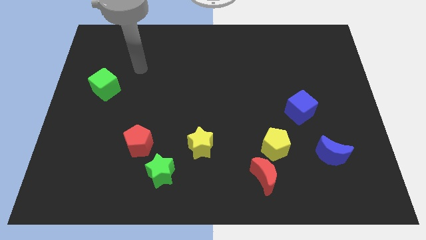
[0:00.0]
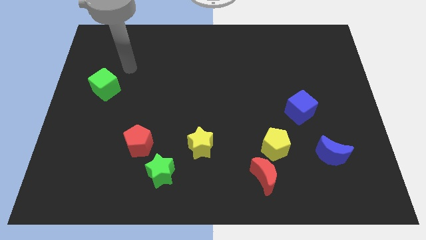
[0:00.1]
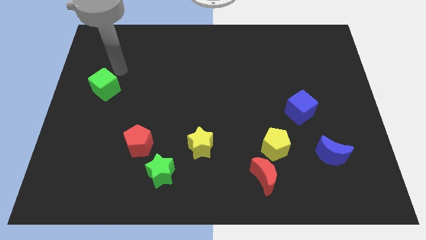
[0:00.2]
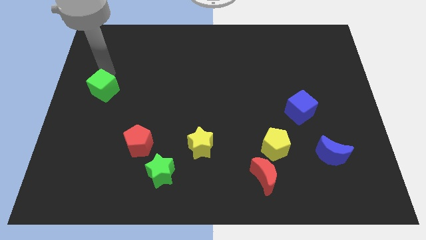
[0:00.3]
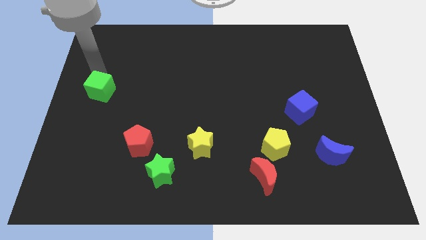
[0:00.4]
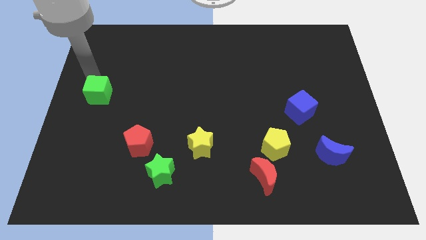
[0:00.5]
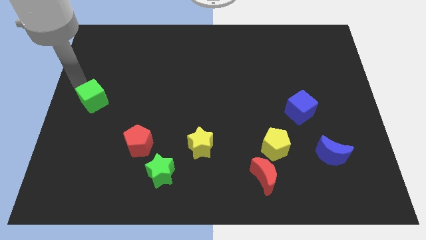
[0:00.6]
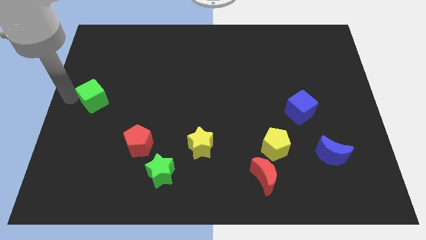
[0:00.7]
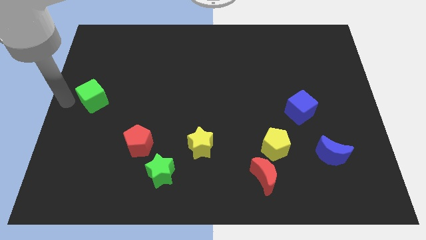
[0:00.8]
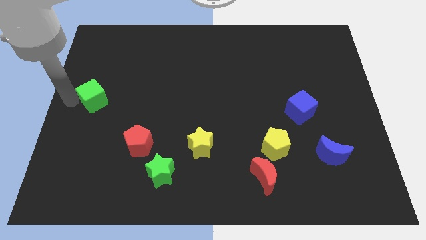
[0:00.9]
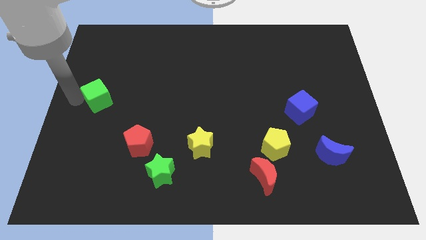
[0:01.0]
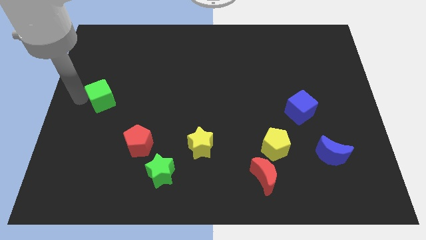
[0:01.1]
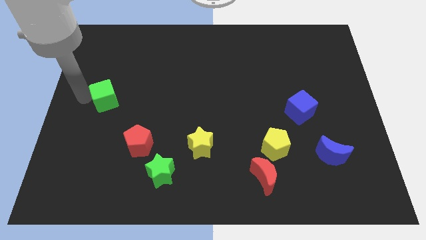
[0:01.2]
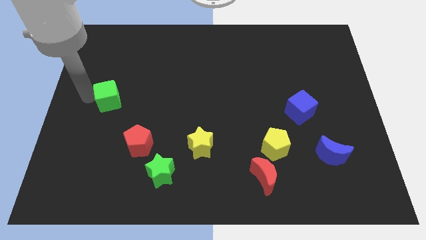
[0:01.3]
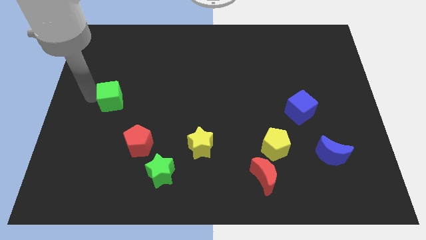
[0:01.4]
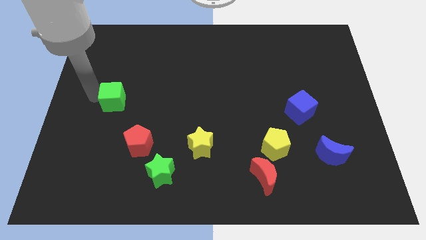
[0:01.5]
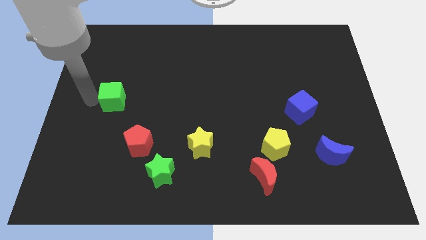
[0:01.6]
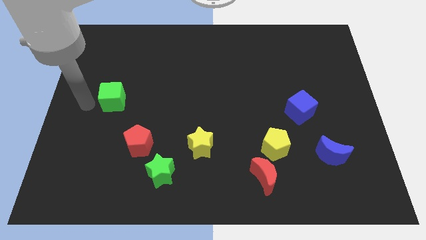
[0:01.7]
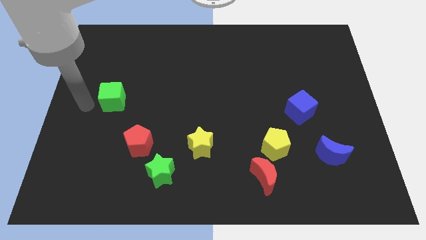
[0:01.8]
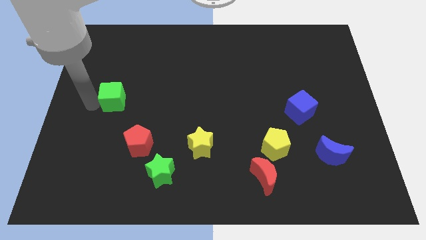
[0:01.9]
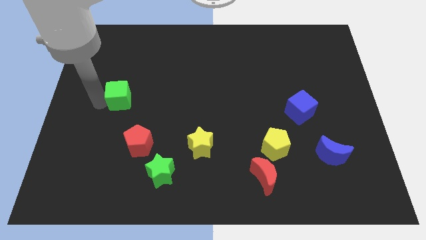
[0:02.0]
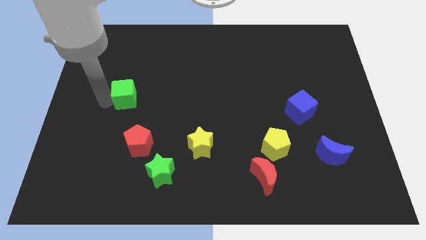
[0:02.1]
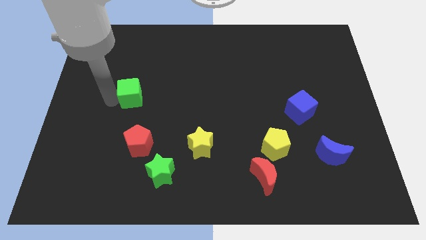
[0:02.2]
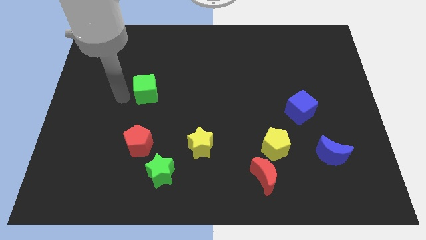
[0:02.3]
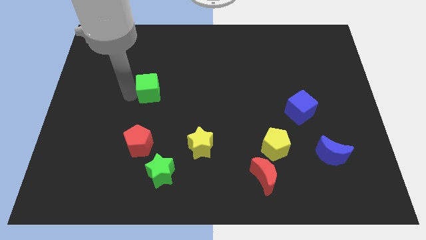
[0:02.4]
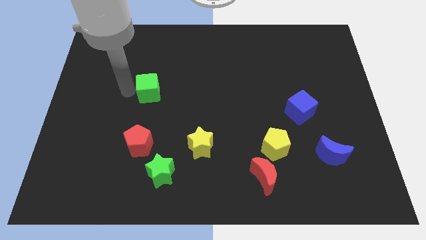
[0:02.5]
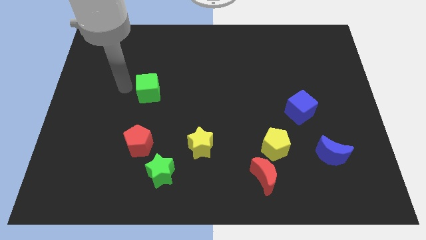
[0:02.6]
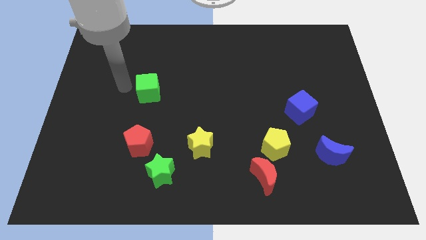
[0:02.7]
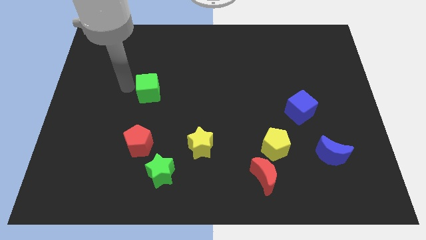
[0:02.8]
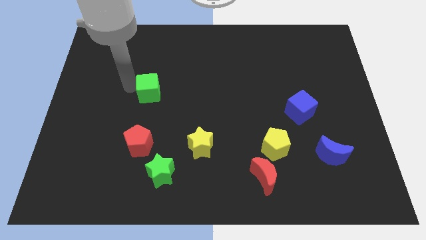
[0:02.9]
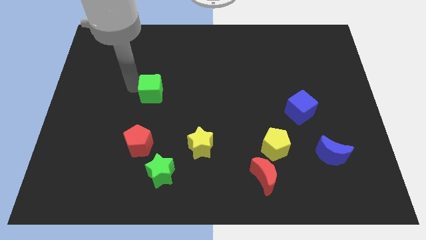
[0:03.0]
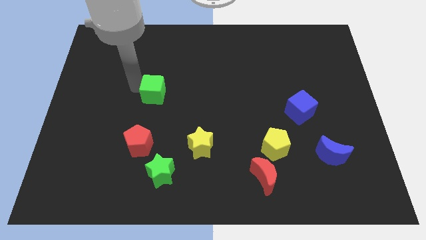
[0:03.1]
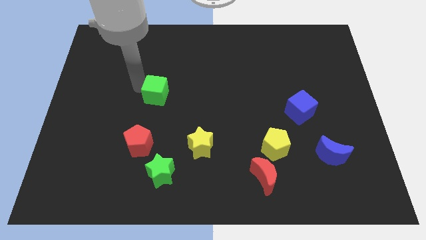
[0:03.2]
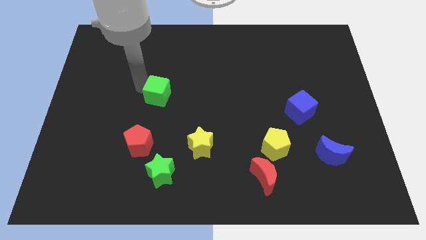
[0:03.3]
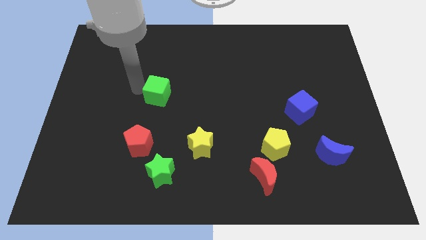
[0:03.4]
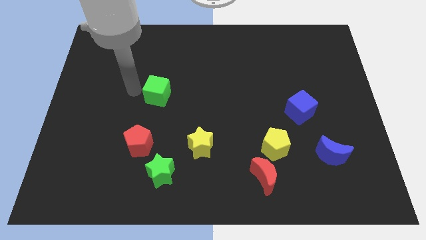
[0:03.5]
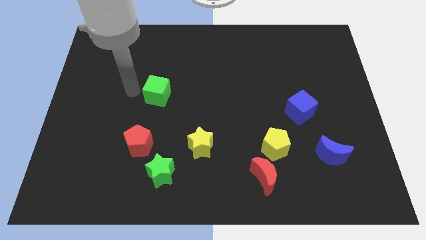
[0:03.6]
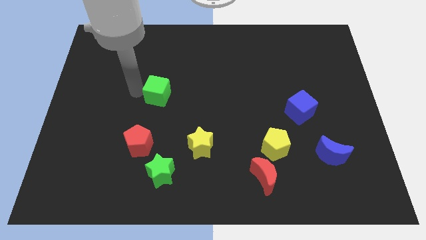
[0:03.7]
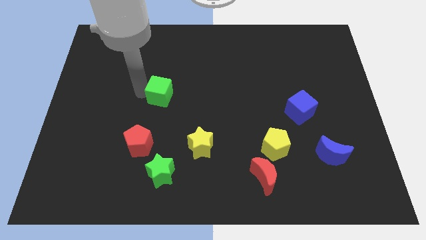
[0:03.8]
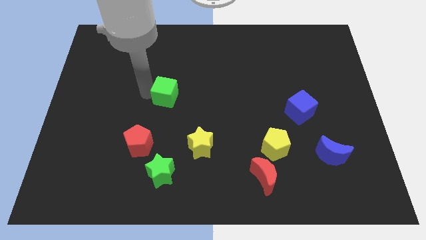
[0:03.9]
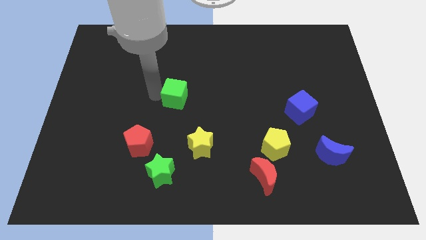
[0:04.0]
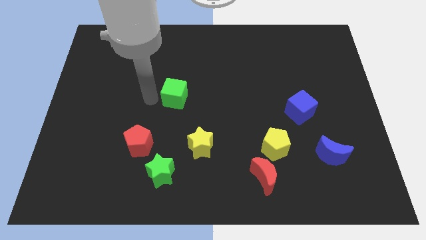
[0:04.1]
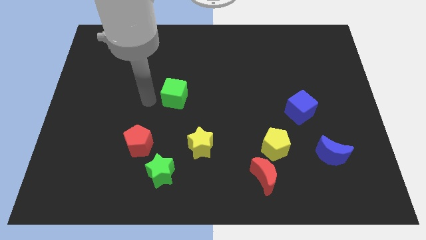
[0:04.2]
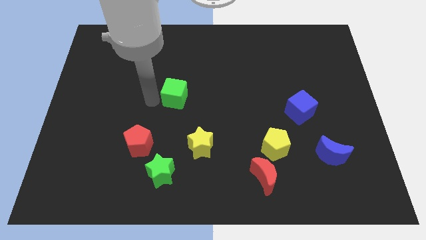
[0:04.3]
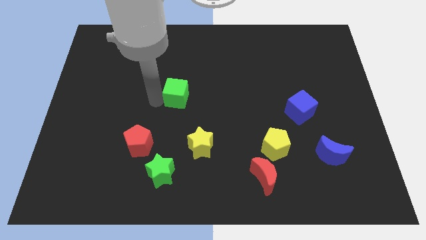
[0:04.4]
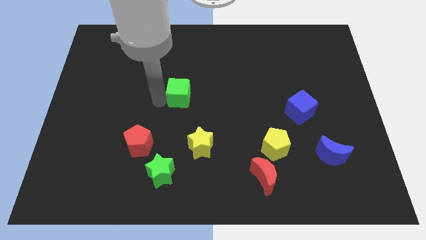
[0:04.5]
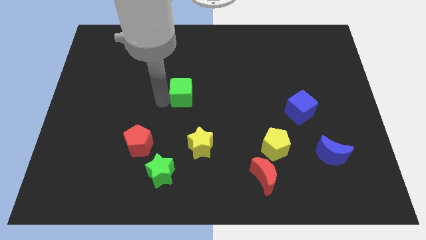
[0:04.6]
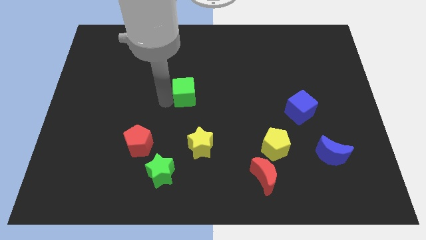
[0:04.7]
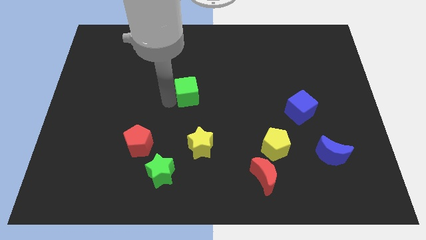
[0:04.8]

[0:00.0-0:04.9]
push the green cube right

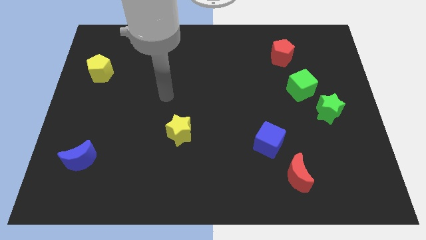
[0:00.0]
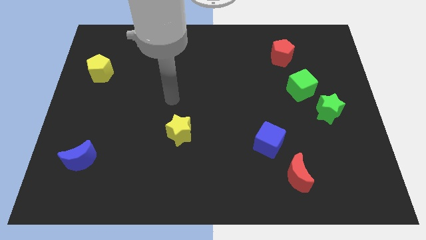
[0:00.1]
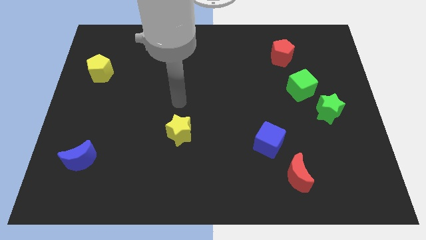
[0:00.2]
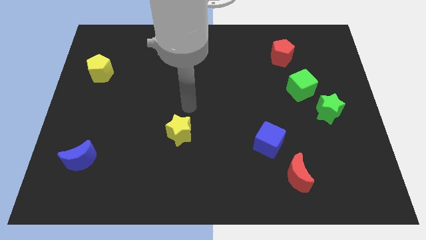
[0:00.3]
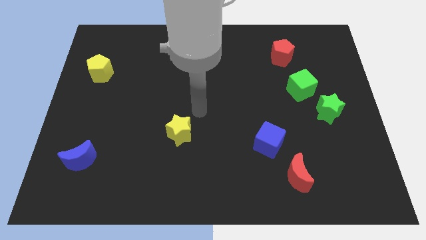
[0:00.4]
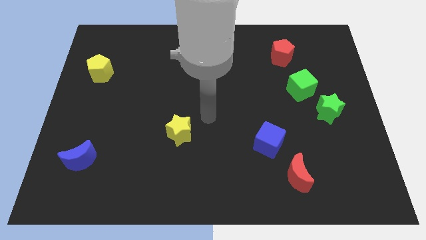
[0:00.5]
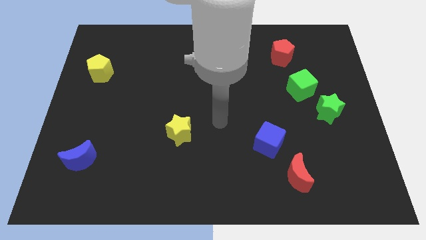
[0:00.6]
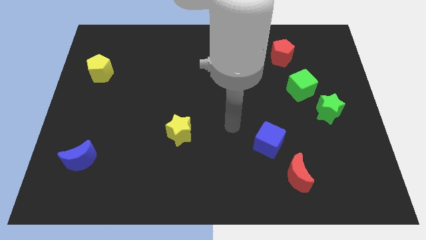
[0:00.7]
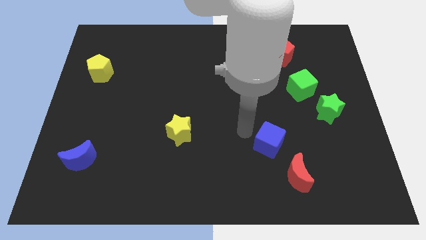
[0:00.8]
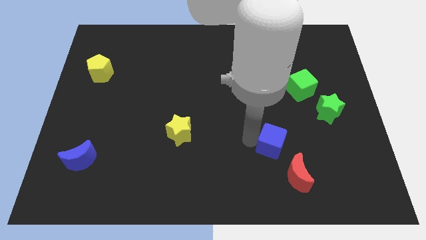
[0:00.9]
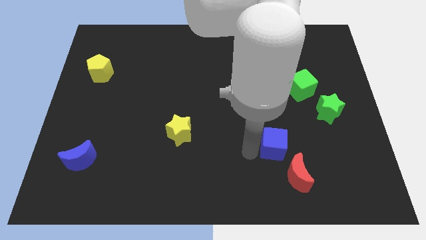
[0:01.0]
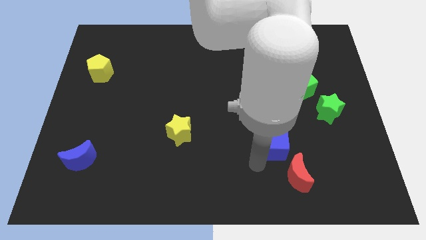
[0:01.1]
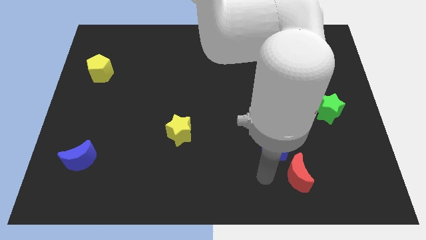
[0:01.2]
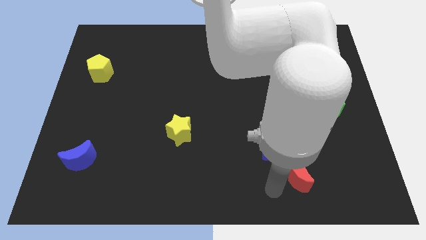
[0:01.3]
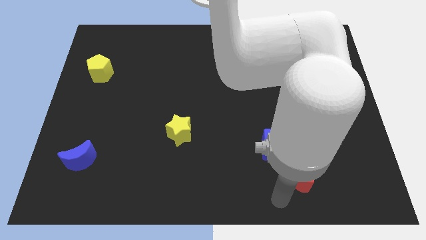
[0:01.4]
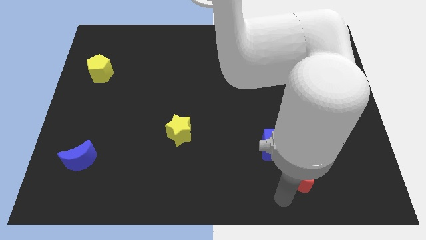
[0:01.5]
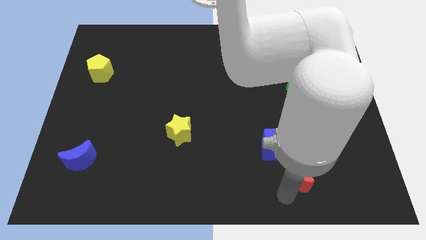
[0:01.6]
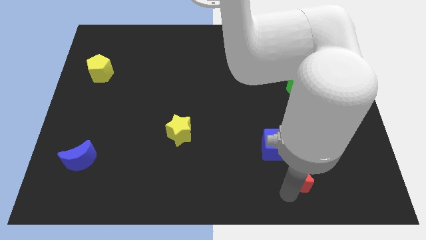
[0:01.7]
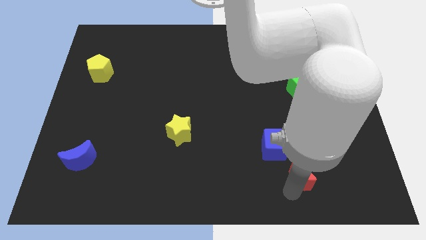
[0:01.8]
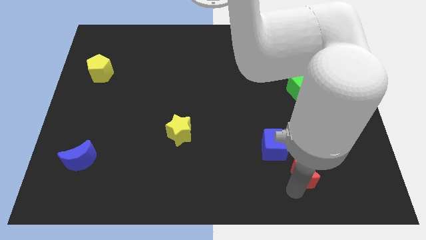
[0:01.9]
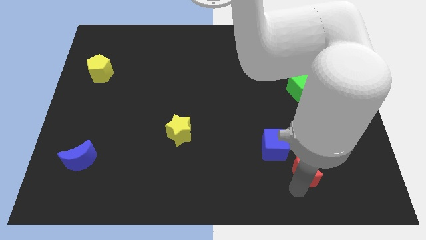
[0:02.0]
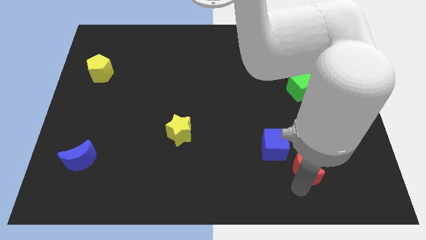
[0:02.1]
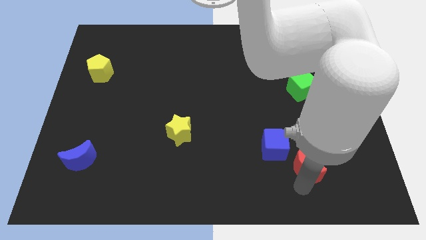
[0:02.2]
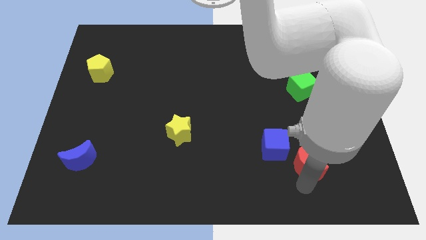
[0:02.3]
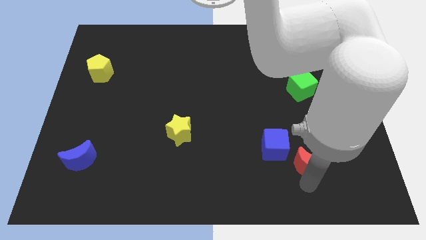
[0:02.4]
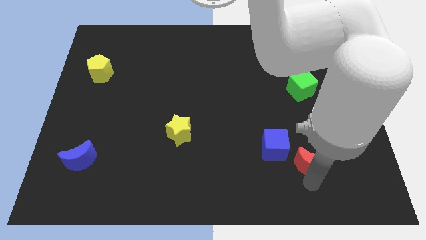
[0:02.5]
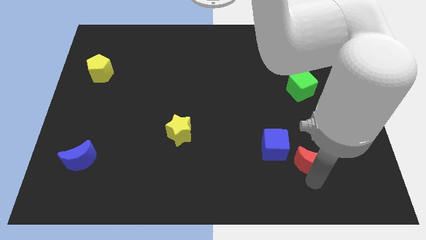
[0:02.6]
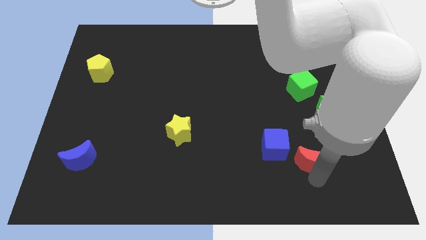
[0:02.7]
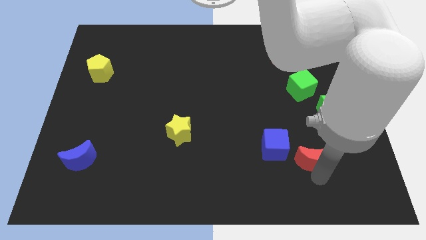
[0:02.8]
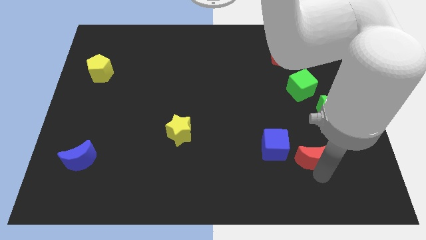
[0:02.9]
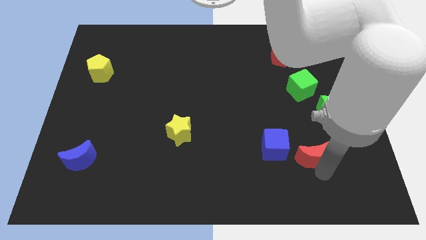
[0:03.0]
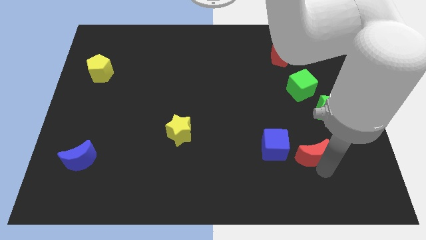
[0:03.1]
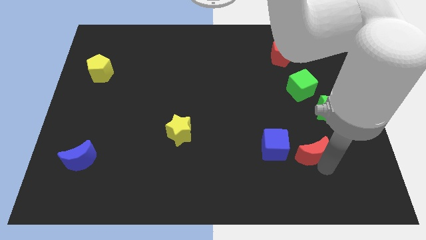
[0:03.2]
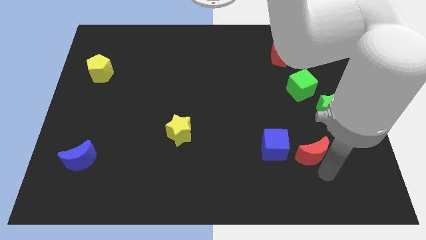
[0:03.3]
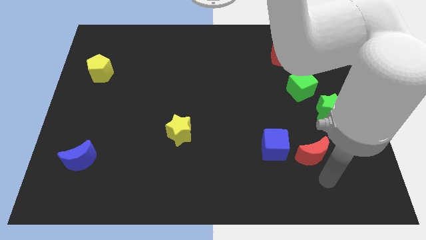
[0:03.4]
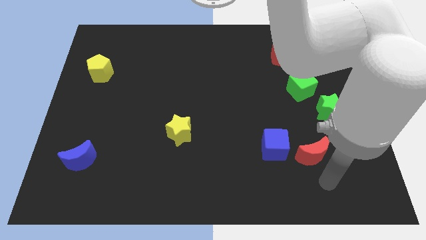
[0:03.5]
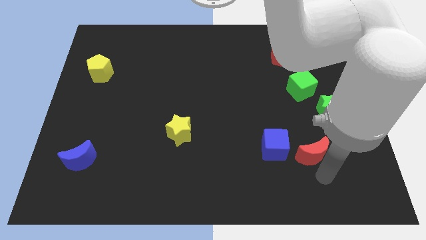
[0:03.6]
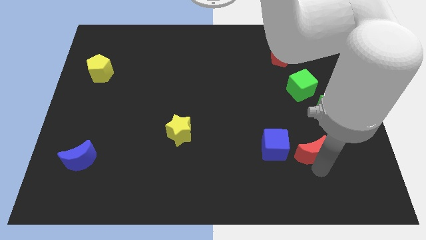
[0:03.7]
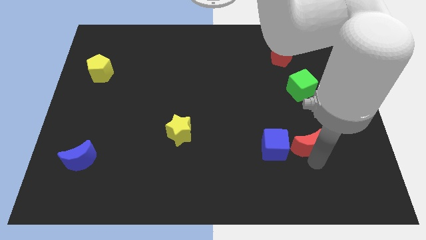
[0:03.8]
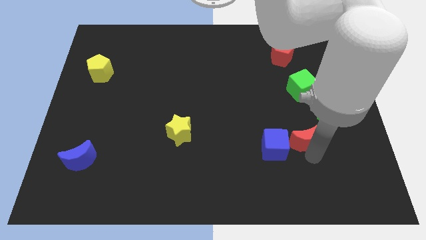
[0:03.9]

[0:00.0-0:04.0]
slightly slide the red moon up
